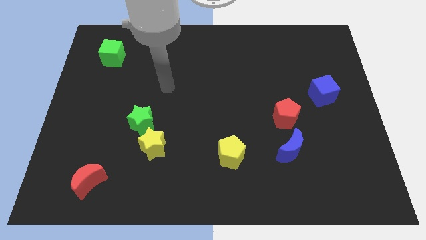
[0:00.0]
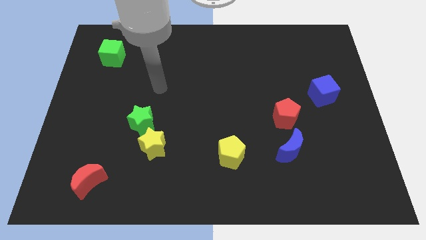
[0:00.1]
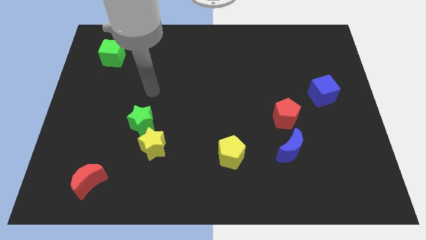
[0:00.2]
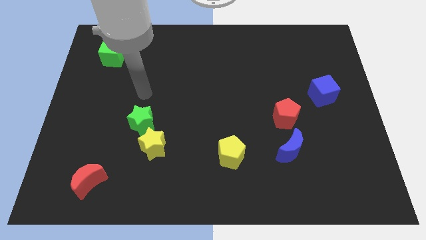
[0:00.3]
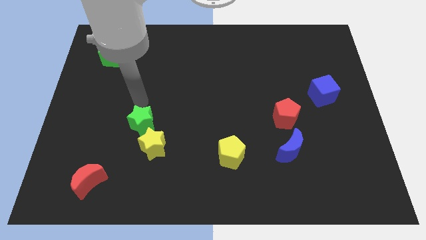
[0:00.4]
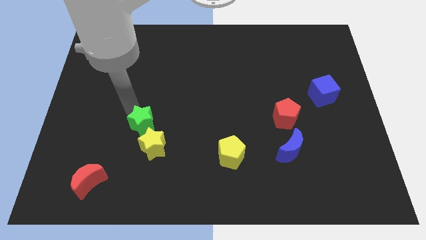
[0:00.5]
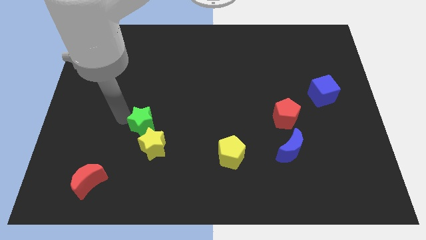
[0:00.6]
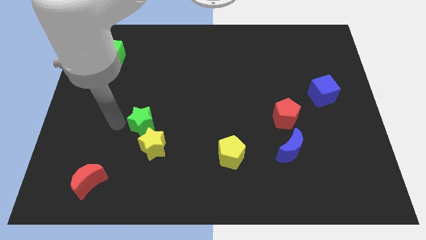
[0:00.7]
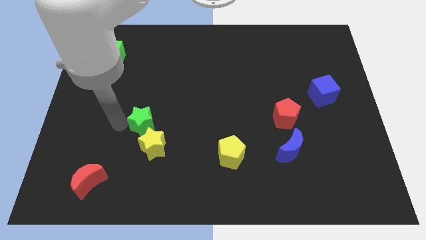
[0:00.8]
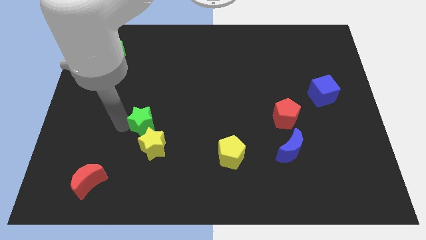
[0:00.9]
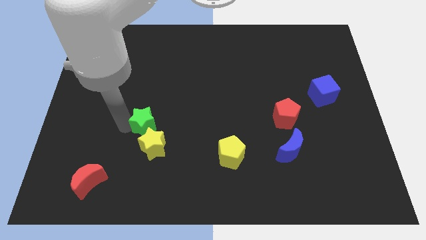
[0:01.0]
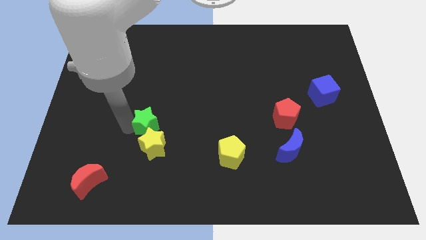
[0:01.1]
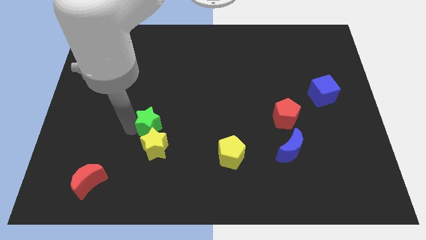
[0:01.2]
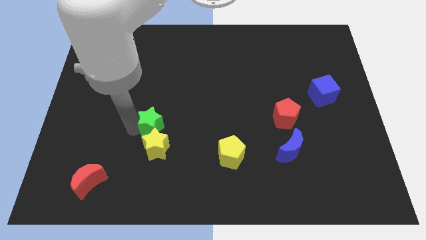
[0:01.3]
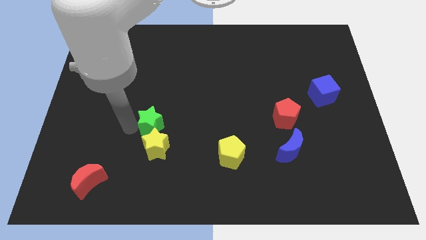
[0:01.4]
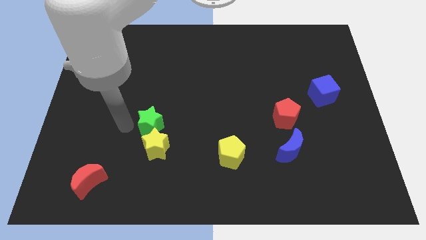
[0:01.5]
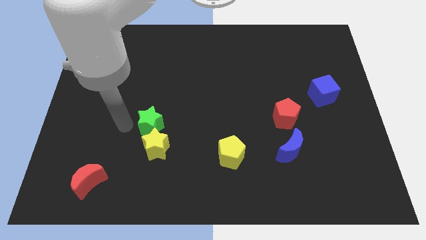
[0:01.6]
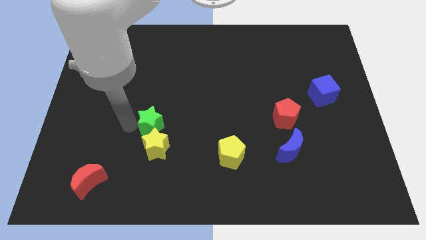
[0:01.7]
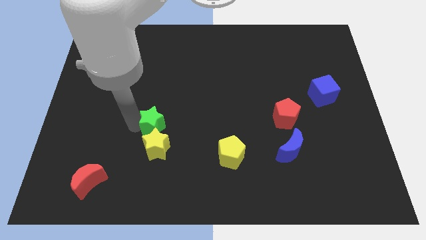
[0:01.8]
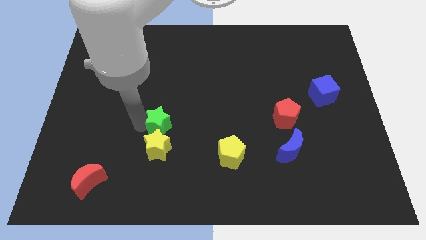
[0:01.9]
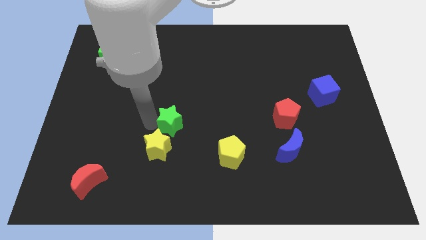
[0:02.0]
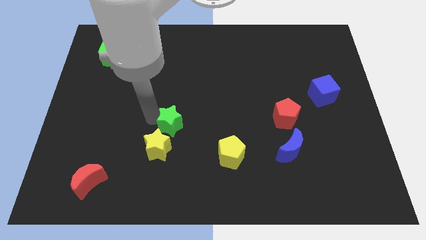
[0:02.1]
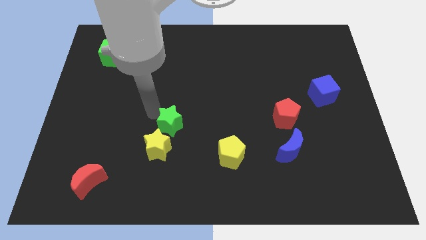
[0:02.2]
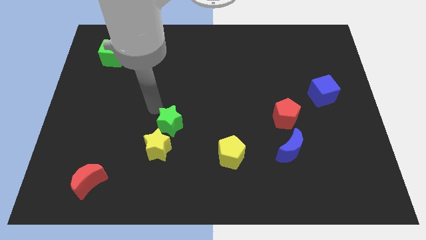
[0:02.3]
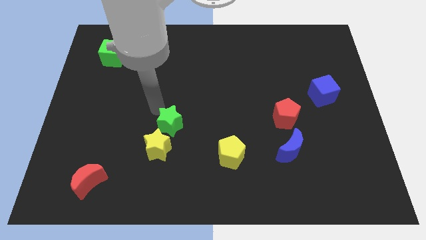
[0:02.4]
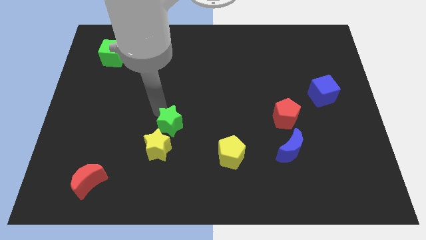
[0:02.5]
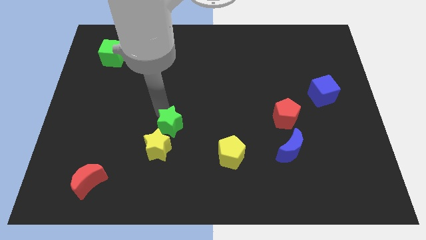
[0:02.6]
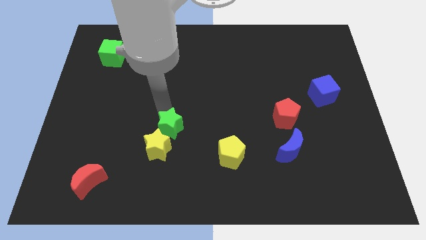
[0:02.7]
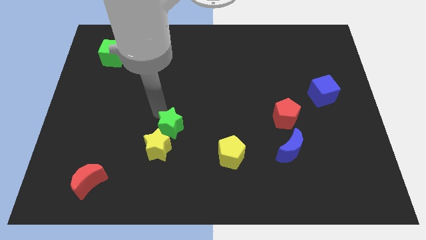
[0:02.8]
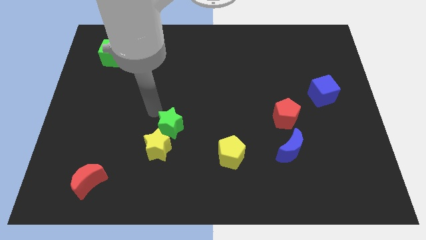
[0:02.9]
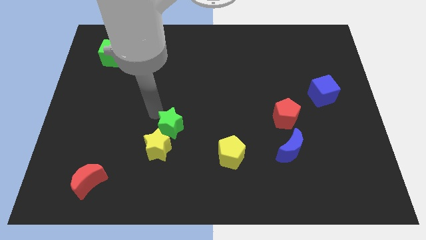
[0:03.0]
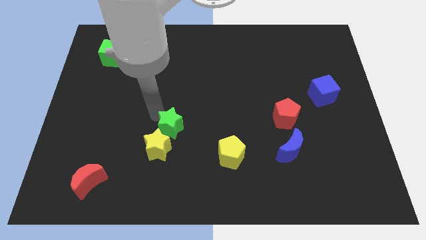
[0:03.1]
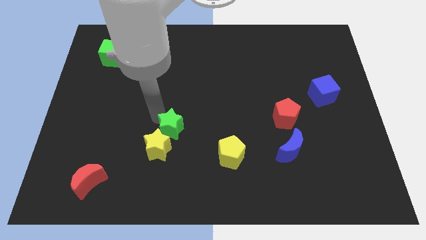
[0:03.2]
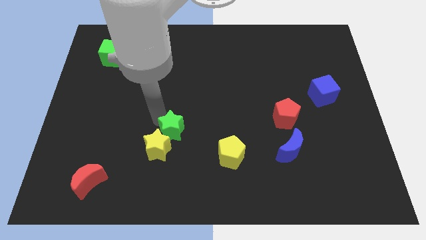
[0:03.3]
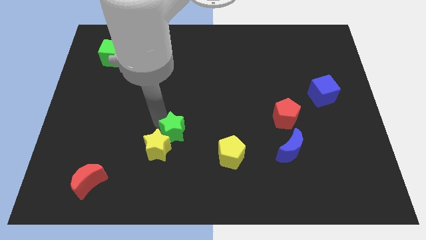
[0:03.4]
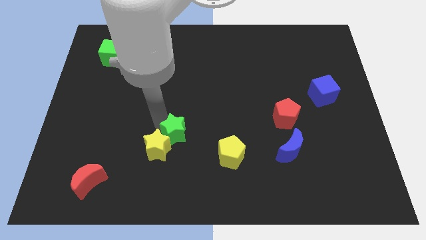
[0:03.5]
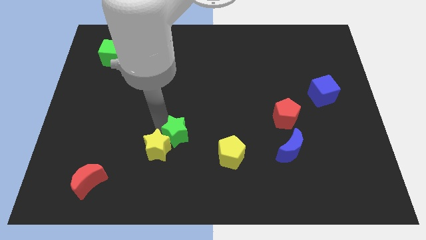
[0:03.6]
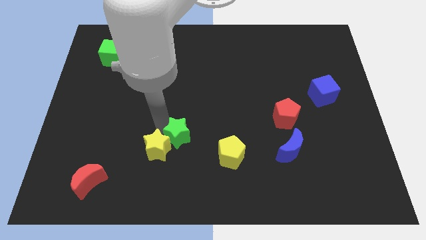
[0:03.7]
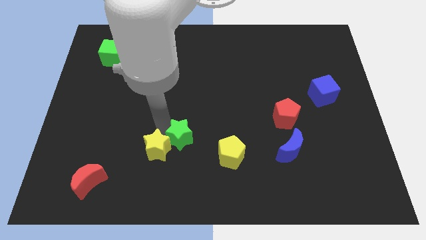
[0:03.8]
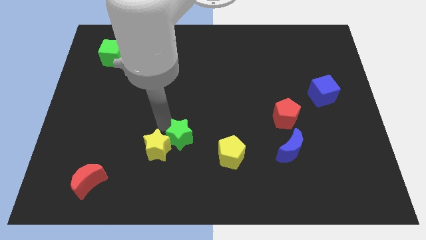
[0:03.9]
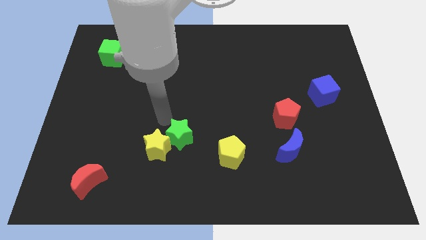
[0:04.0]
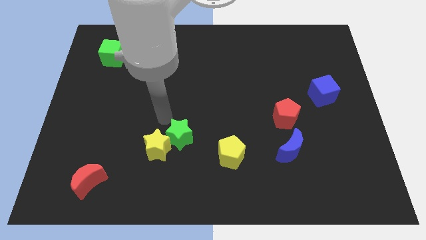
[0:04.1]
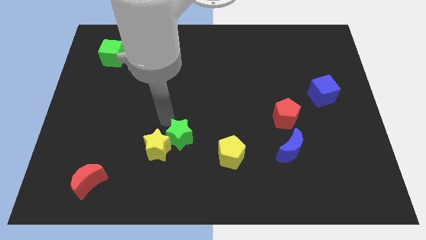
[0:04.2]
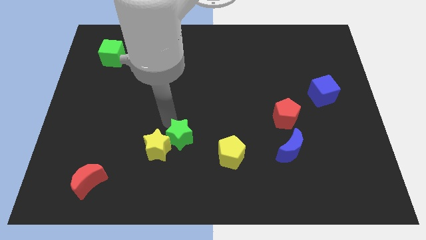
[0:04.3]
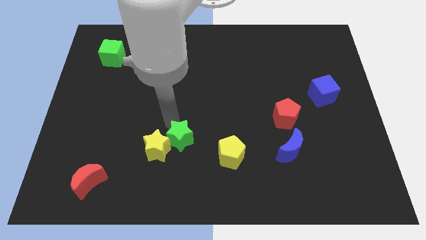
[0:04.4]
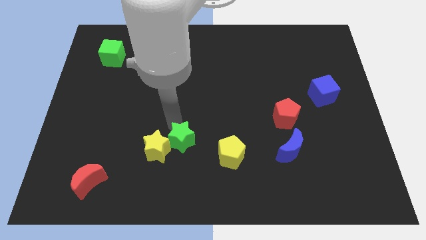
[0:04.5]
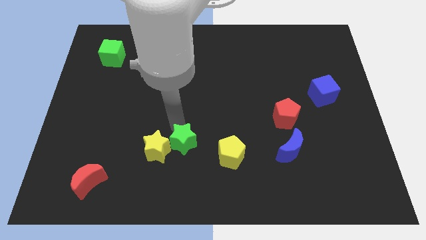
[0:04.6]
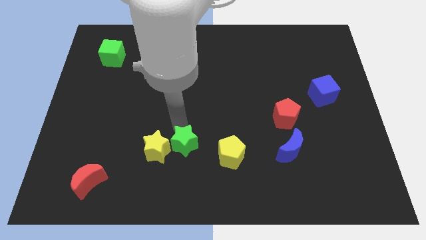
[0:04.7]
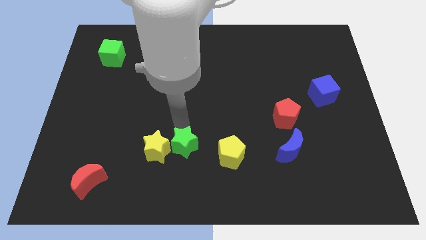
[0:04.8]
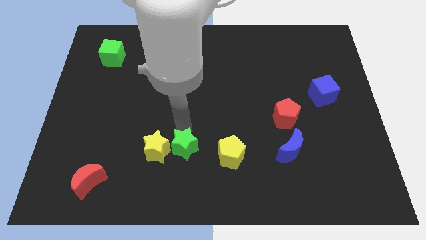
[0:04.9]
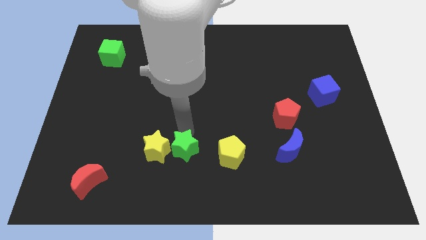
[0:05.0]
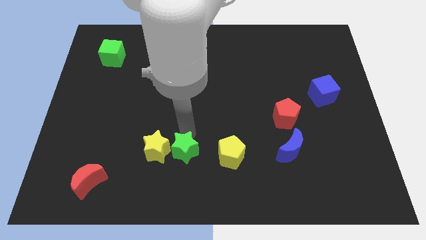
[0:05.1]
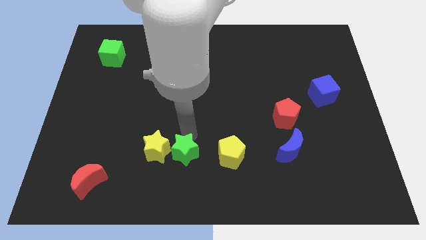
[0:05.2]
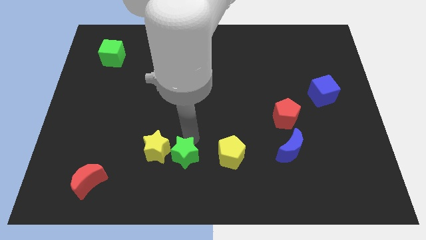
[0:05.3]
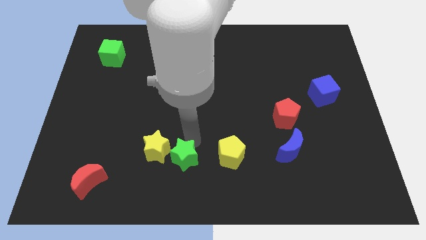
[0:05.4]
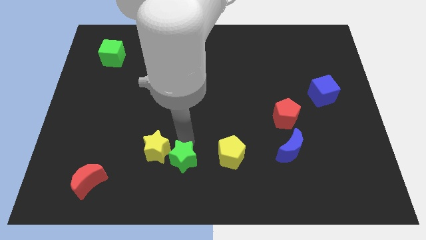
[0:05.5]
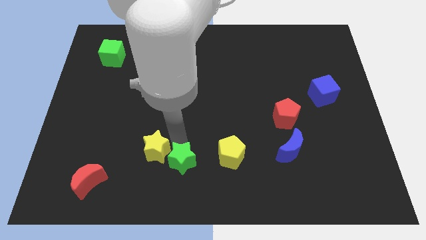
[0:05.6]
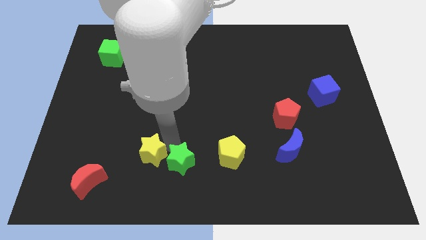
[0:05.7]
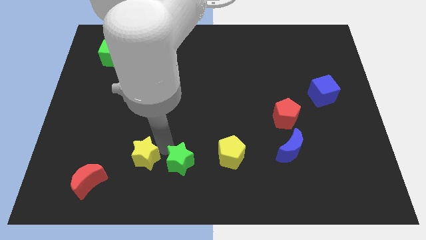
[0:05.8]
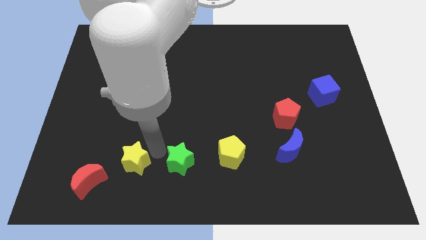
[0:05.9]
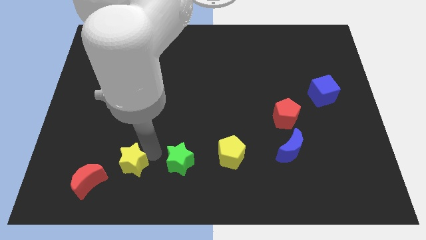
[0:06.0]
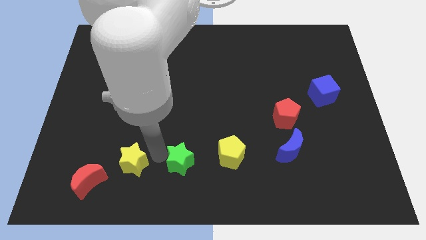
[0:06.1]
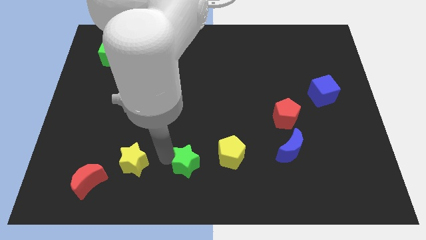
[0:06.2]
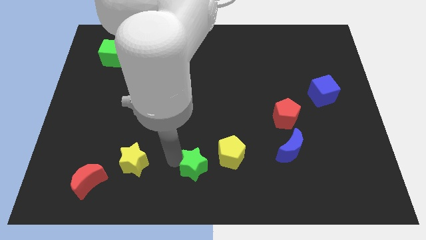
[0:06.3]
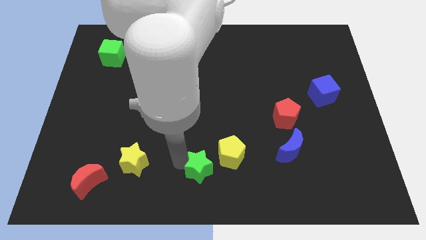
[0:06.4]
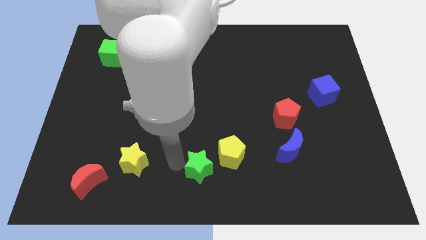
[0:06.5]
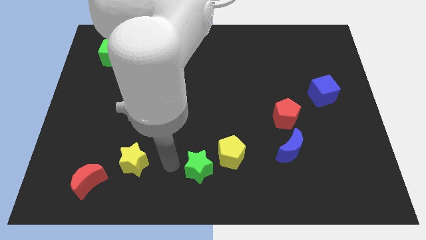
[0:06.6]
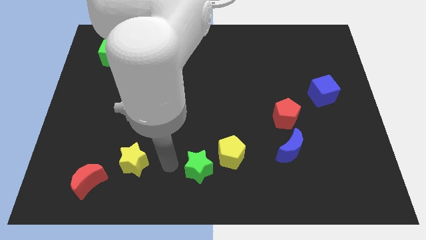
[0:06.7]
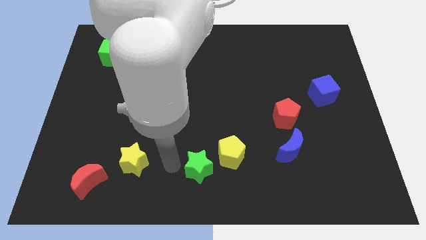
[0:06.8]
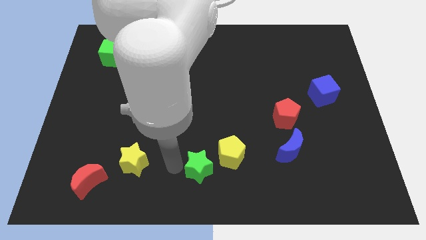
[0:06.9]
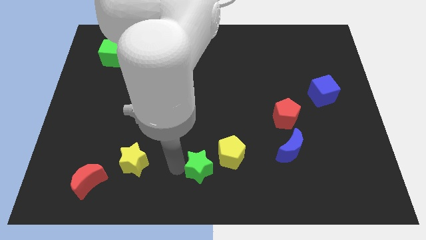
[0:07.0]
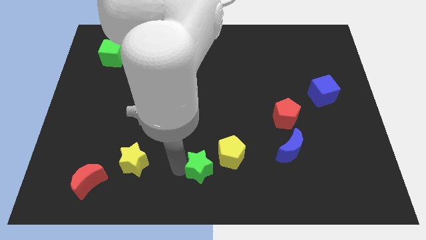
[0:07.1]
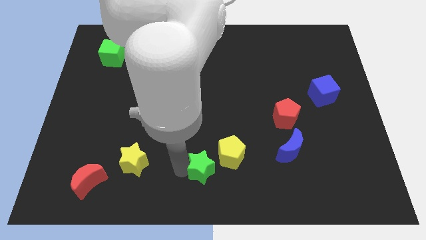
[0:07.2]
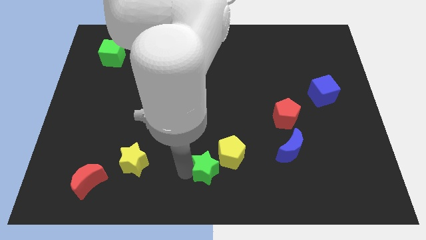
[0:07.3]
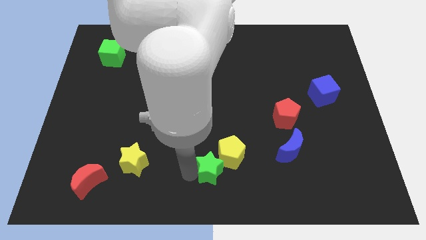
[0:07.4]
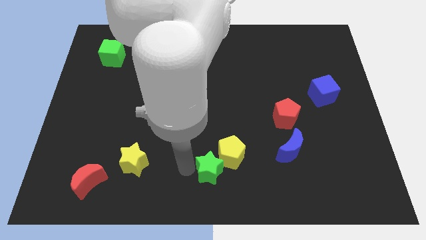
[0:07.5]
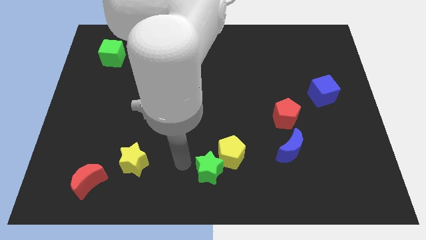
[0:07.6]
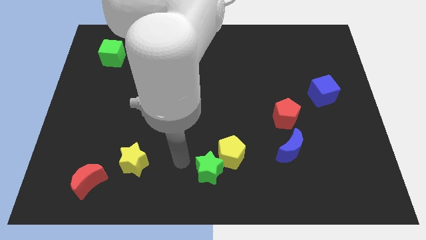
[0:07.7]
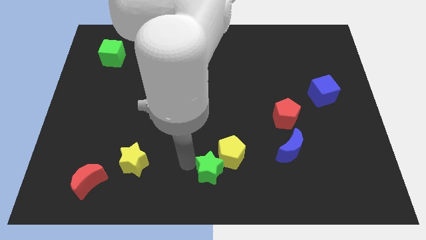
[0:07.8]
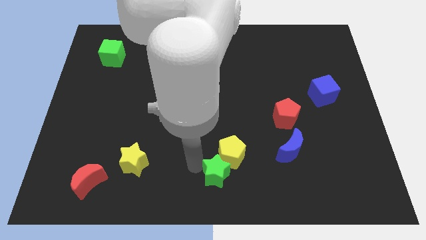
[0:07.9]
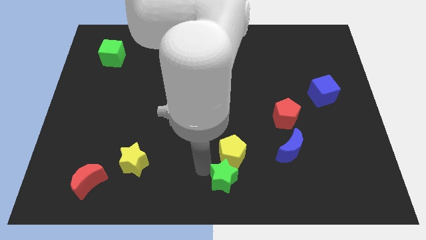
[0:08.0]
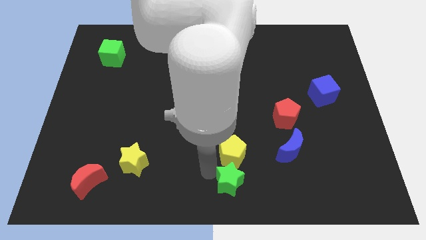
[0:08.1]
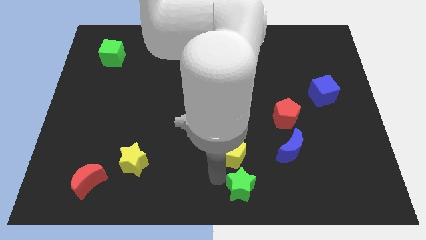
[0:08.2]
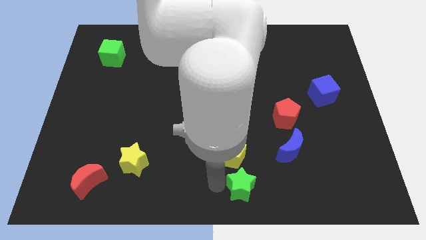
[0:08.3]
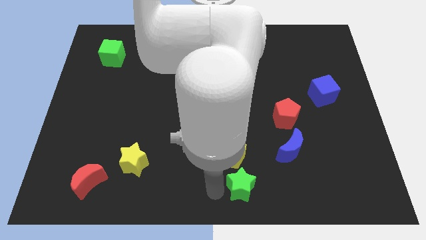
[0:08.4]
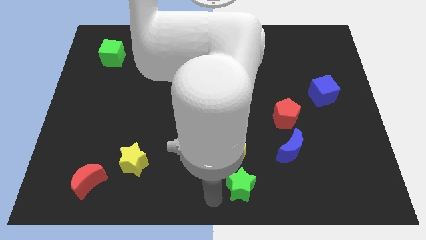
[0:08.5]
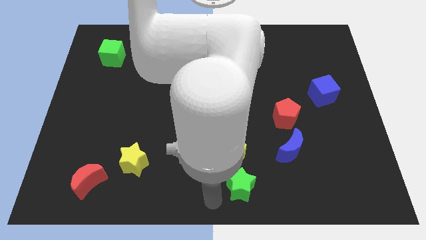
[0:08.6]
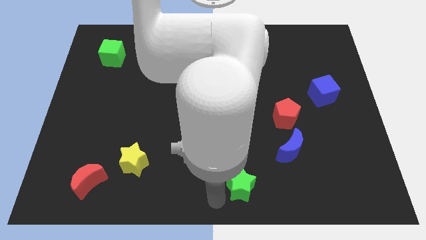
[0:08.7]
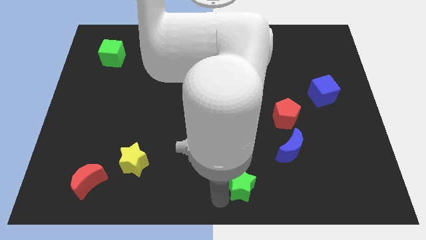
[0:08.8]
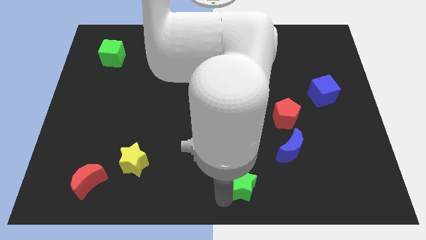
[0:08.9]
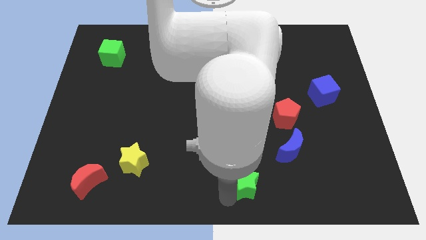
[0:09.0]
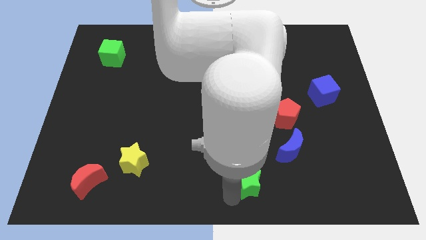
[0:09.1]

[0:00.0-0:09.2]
slide the green star diagonally down and to the left of the blue moon
